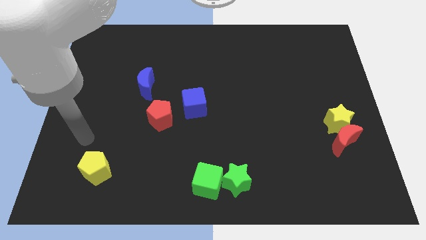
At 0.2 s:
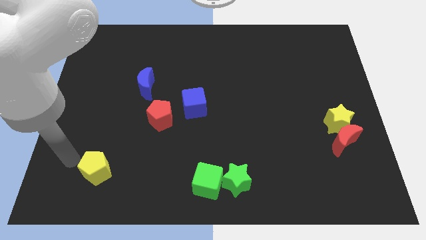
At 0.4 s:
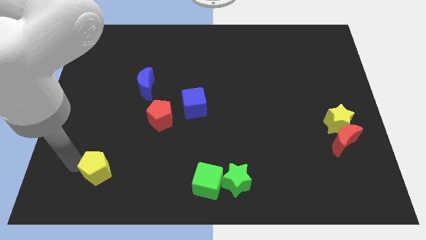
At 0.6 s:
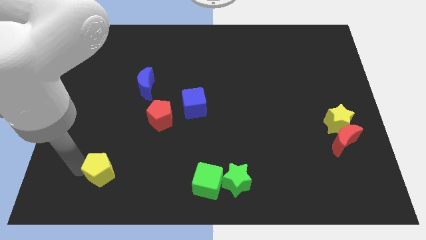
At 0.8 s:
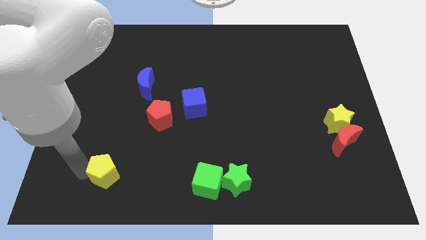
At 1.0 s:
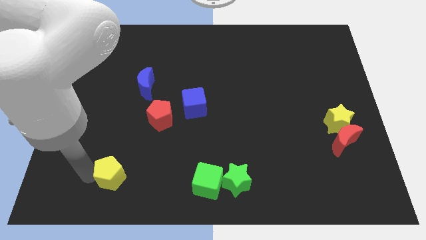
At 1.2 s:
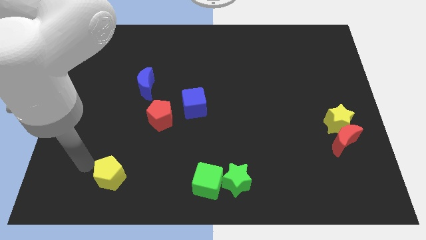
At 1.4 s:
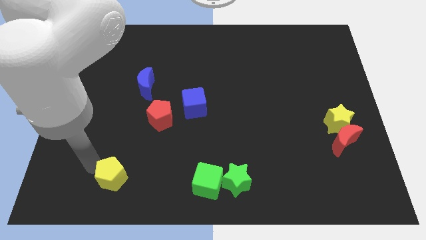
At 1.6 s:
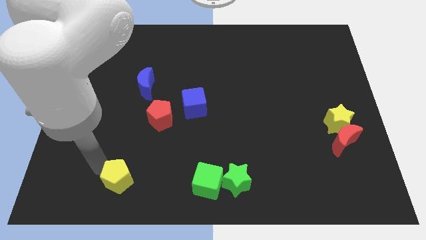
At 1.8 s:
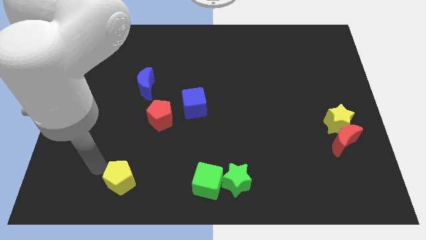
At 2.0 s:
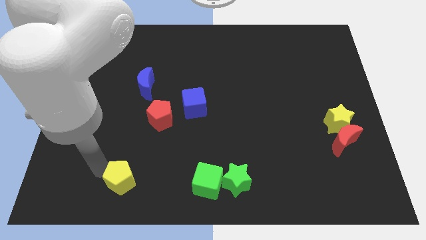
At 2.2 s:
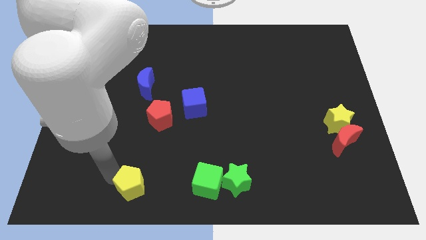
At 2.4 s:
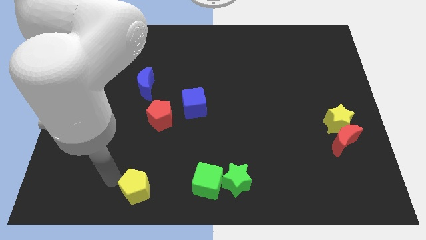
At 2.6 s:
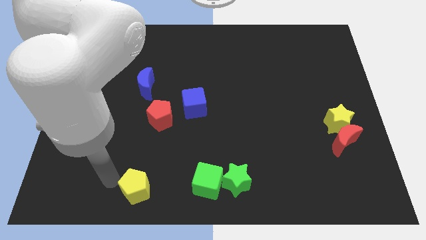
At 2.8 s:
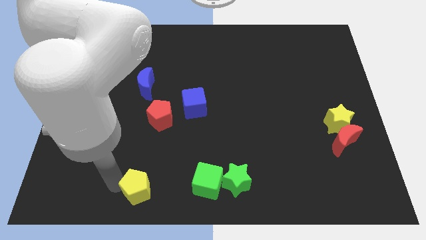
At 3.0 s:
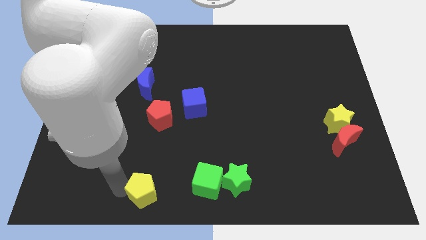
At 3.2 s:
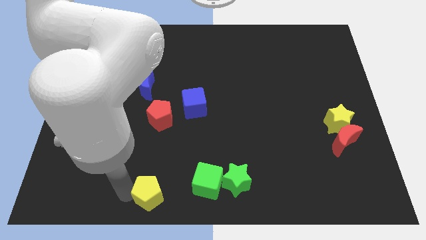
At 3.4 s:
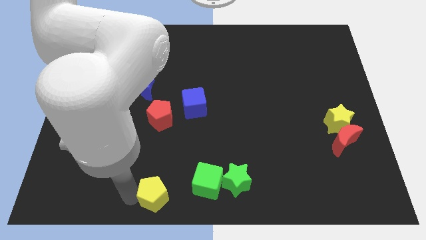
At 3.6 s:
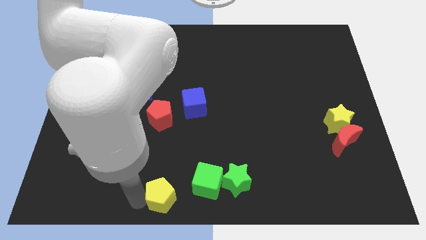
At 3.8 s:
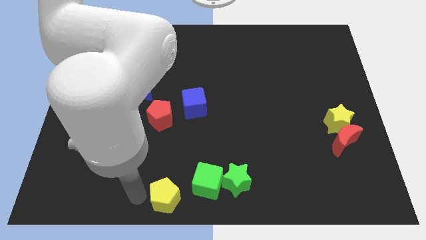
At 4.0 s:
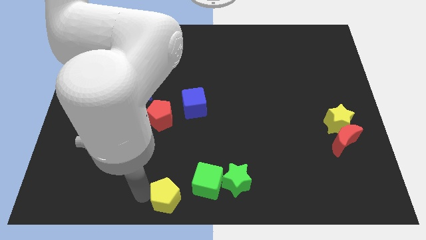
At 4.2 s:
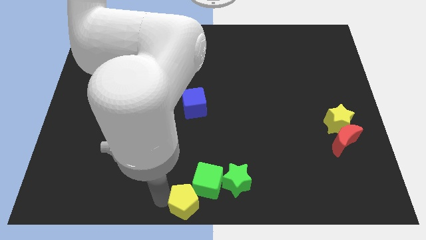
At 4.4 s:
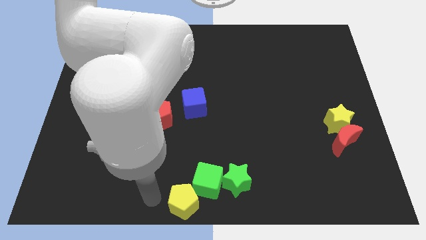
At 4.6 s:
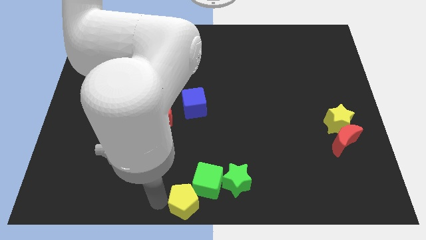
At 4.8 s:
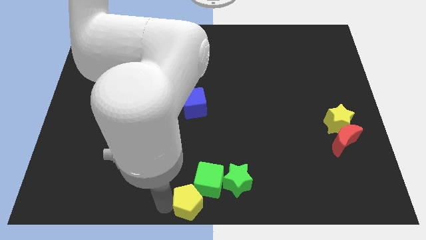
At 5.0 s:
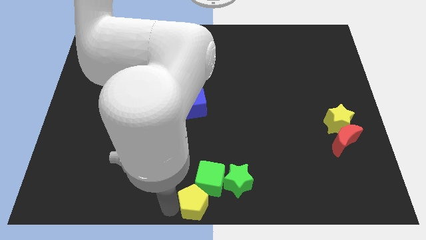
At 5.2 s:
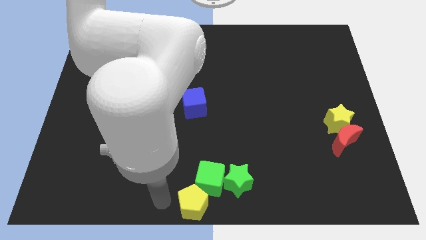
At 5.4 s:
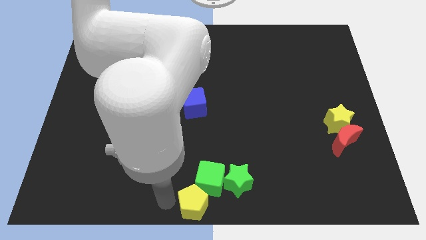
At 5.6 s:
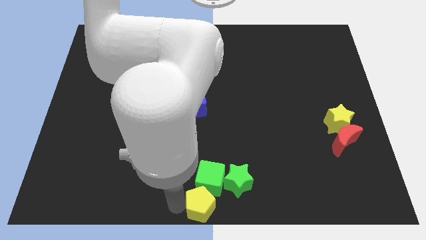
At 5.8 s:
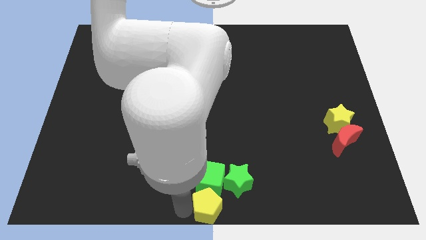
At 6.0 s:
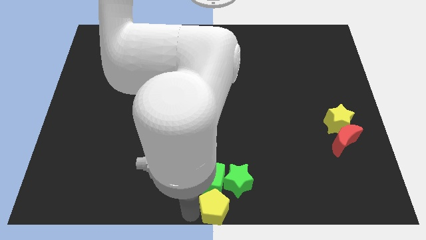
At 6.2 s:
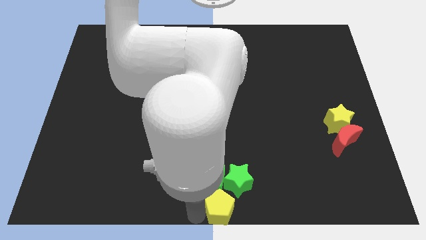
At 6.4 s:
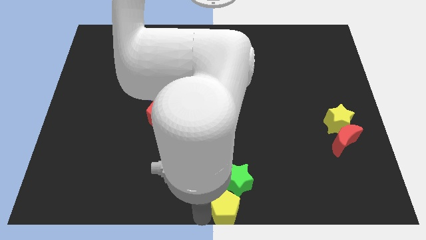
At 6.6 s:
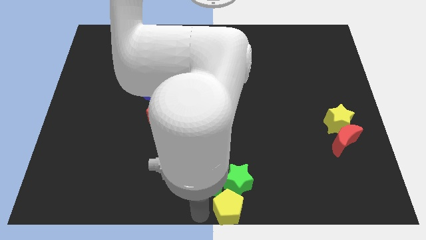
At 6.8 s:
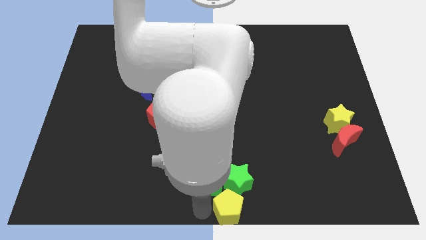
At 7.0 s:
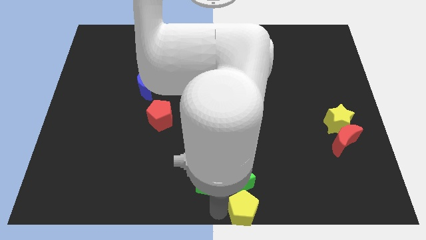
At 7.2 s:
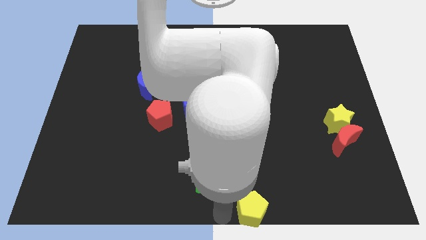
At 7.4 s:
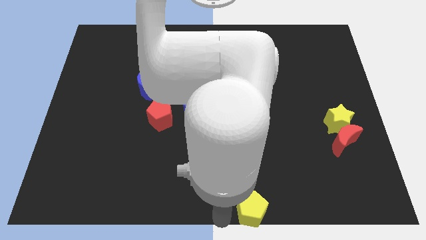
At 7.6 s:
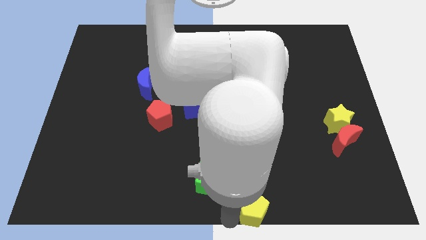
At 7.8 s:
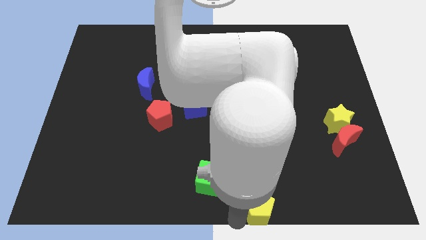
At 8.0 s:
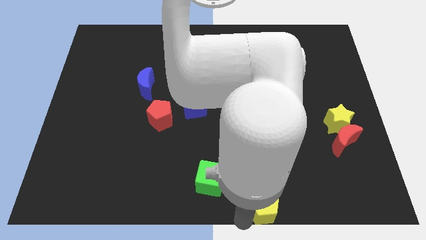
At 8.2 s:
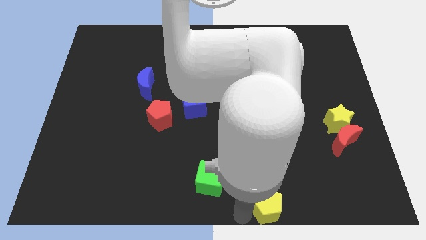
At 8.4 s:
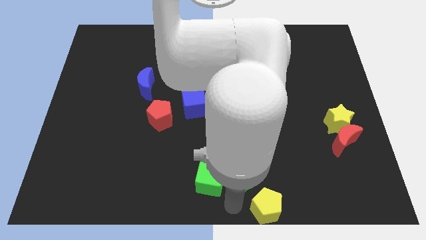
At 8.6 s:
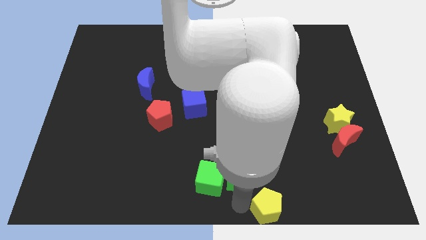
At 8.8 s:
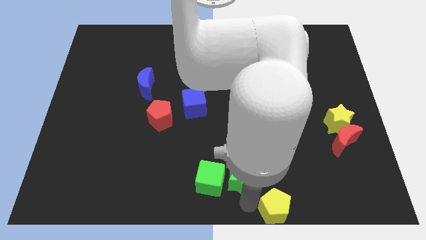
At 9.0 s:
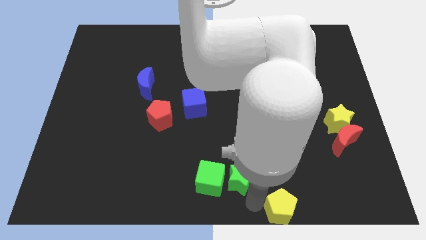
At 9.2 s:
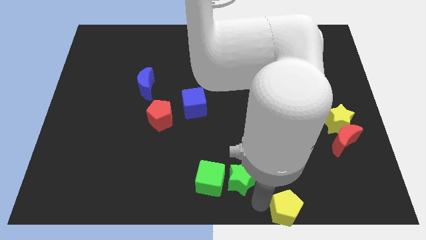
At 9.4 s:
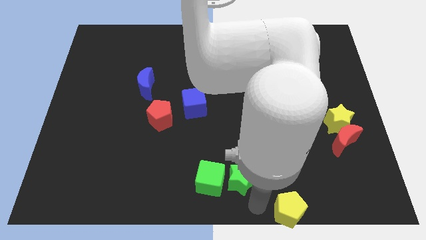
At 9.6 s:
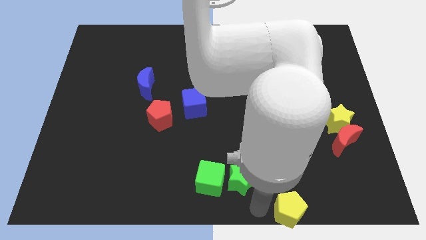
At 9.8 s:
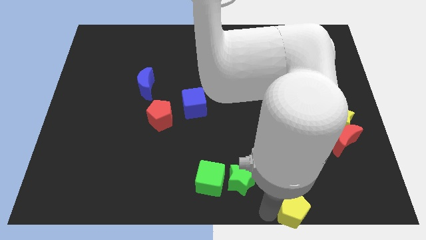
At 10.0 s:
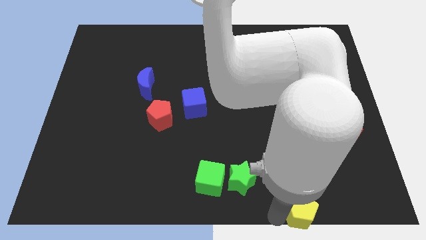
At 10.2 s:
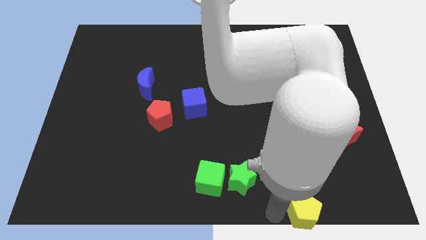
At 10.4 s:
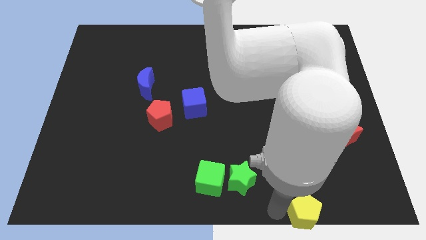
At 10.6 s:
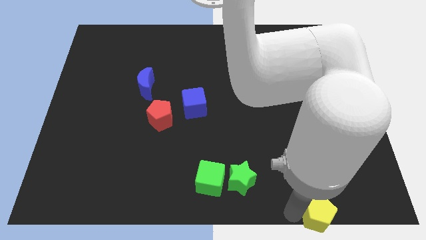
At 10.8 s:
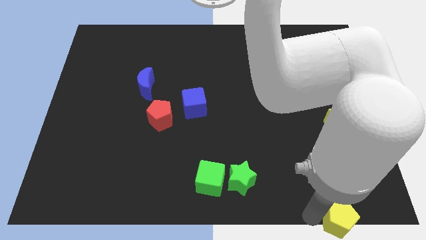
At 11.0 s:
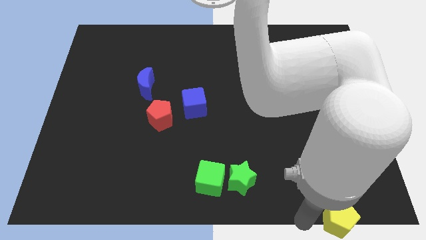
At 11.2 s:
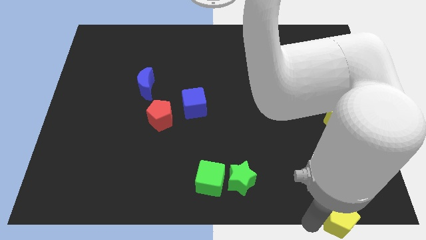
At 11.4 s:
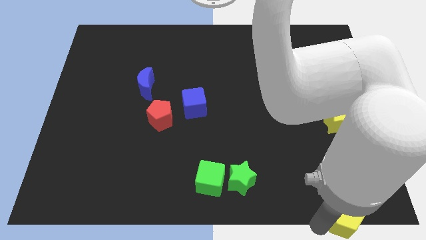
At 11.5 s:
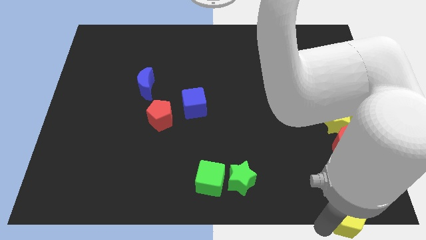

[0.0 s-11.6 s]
slide the yellow pentagon to the bottom right

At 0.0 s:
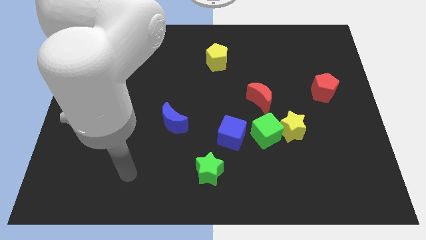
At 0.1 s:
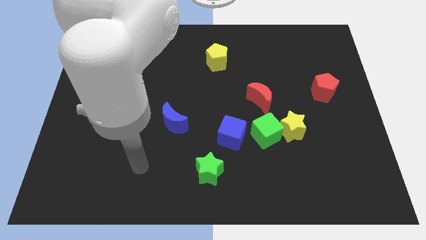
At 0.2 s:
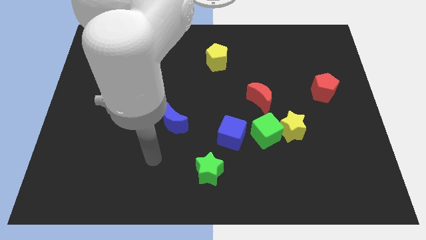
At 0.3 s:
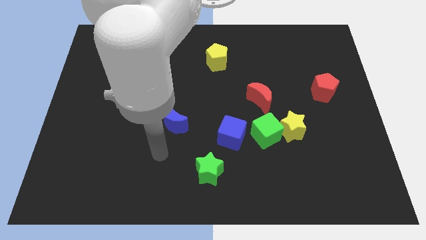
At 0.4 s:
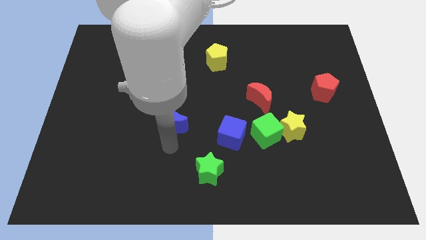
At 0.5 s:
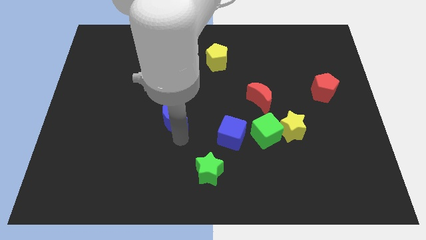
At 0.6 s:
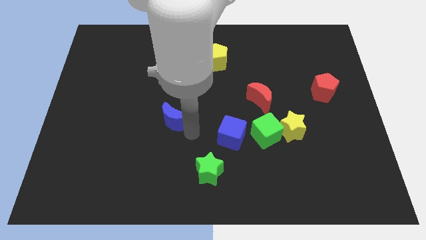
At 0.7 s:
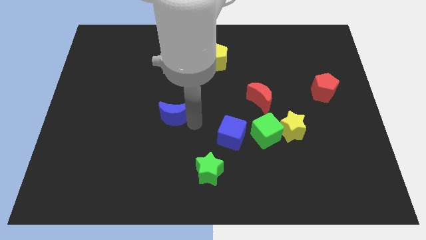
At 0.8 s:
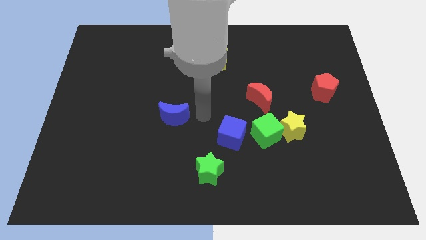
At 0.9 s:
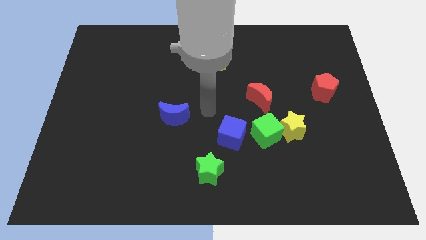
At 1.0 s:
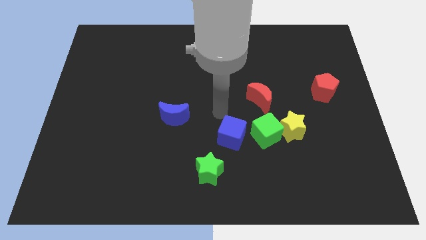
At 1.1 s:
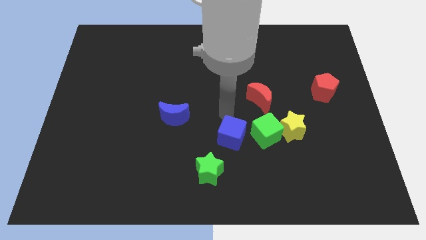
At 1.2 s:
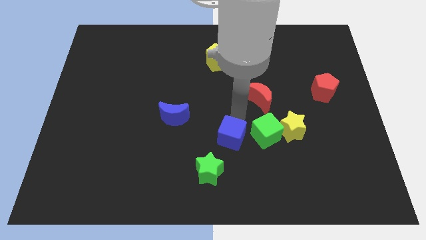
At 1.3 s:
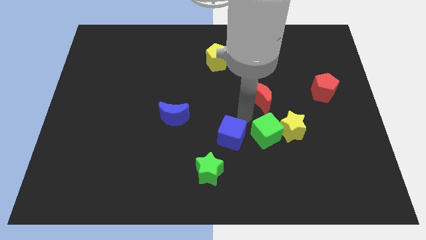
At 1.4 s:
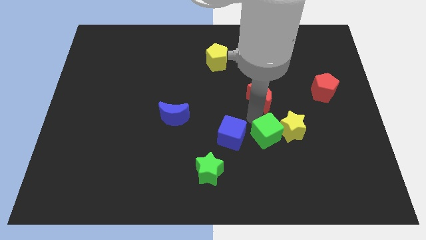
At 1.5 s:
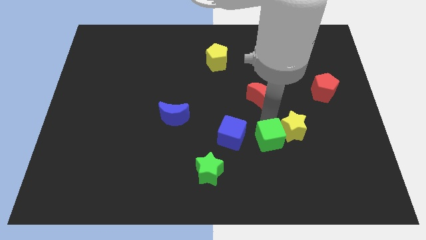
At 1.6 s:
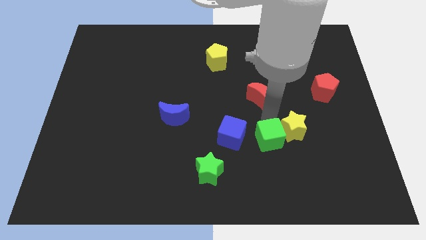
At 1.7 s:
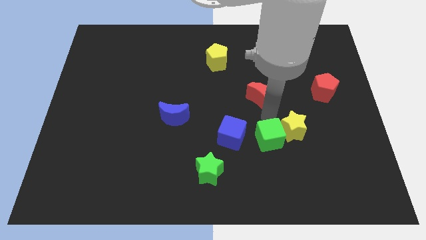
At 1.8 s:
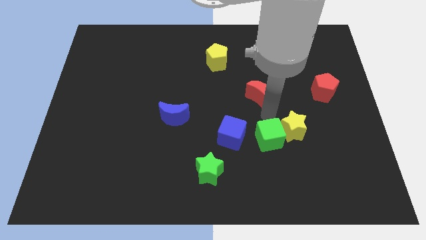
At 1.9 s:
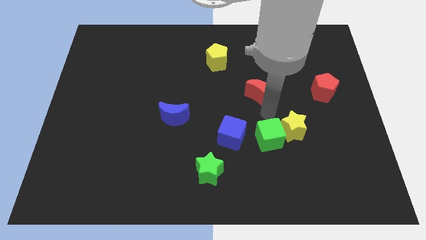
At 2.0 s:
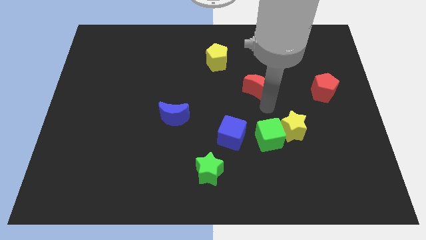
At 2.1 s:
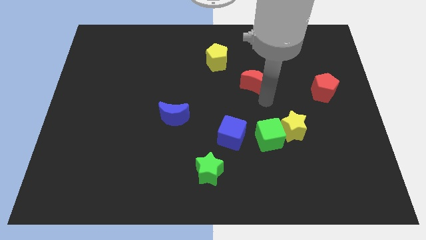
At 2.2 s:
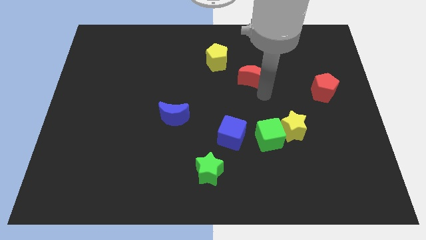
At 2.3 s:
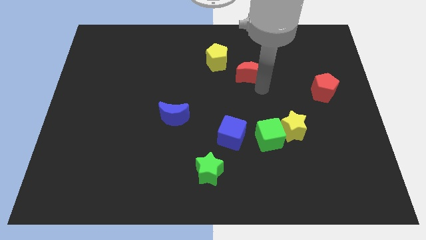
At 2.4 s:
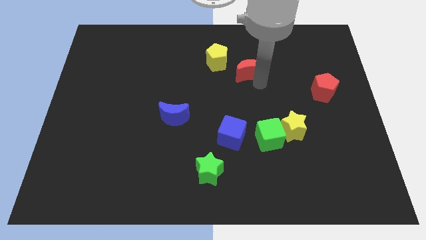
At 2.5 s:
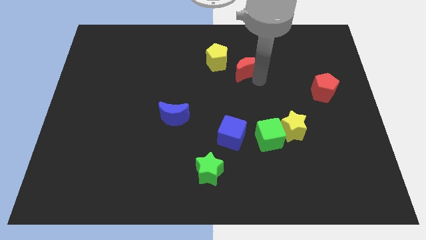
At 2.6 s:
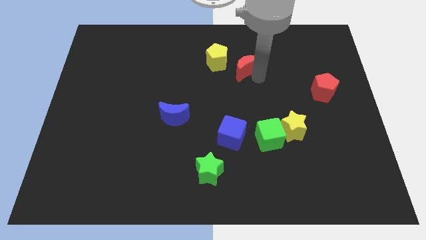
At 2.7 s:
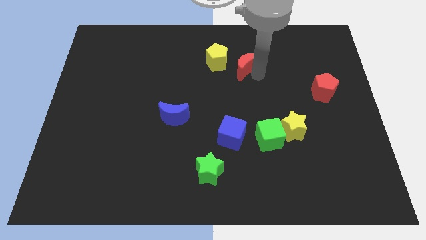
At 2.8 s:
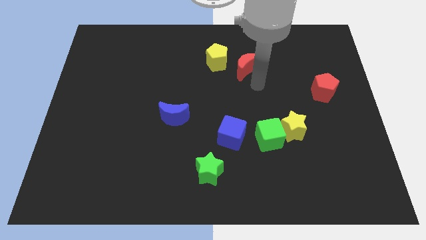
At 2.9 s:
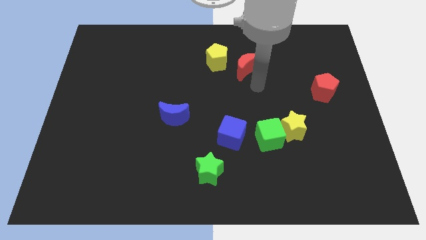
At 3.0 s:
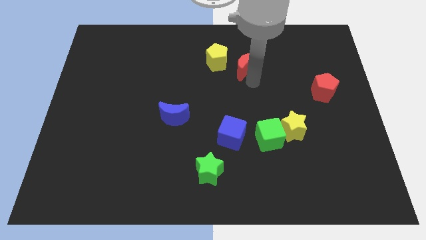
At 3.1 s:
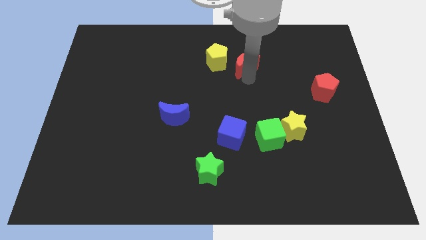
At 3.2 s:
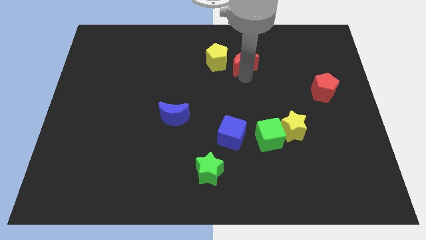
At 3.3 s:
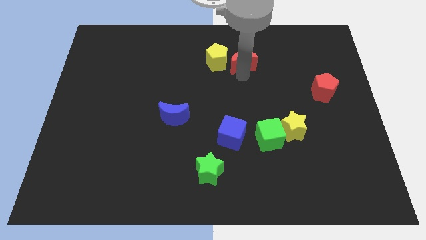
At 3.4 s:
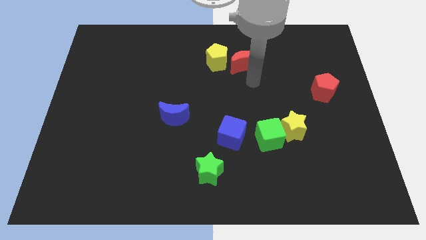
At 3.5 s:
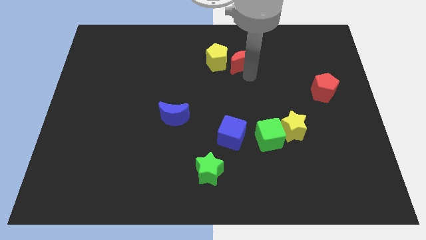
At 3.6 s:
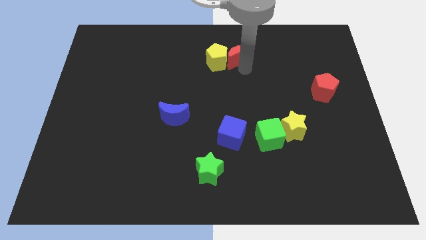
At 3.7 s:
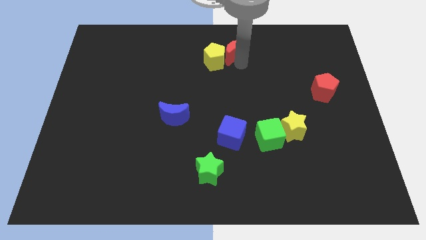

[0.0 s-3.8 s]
slide the red moon to the top side
